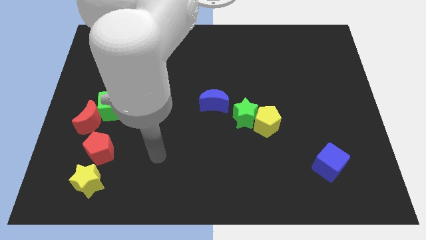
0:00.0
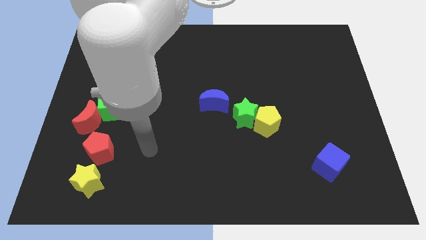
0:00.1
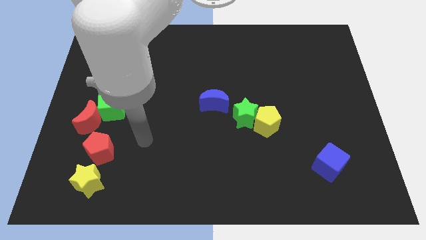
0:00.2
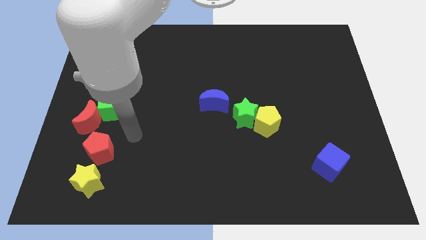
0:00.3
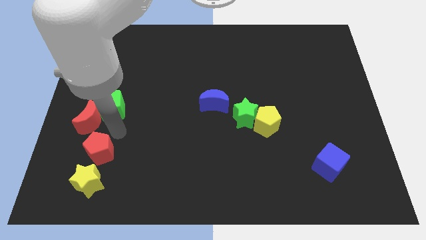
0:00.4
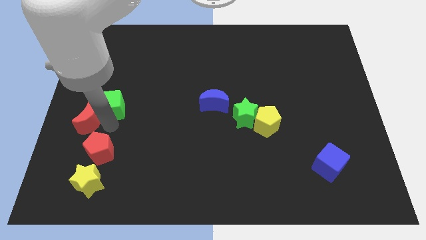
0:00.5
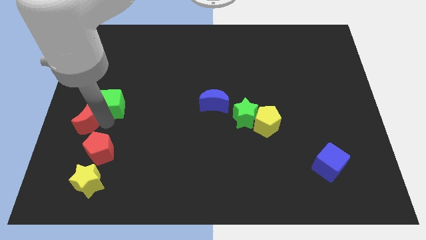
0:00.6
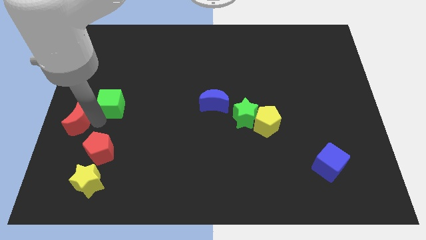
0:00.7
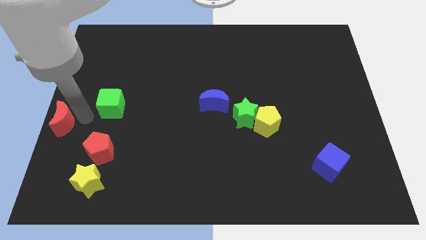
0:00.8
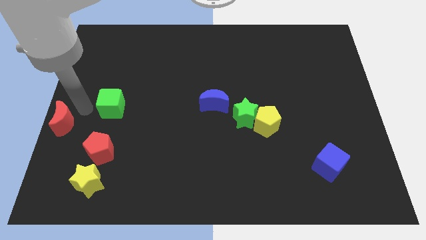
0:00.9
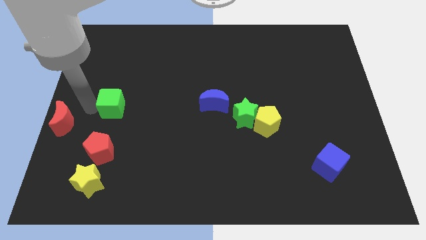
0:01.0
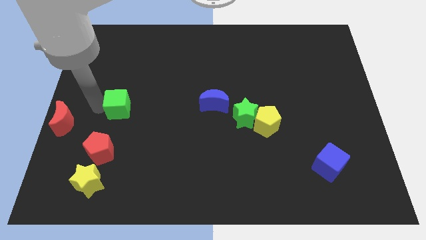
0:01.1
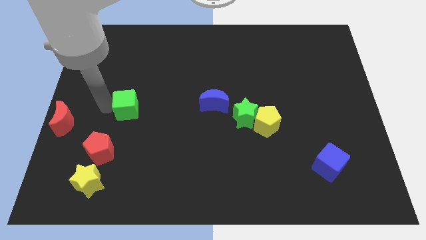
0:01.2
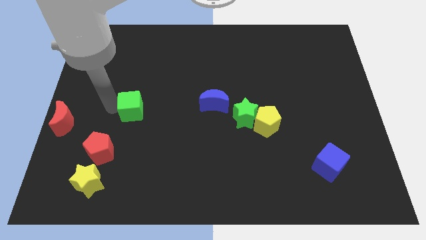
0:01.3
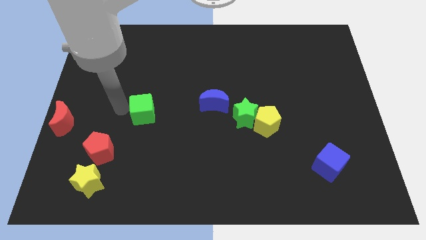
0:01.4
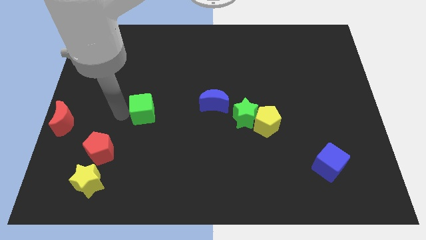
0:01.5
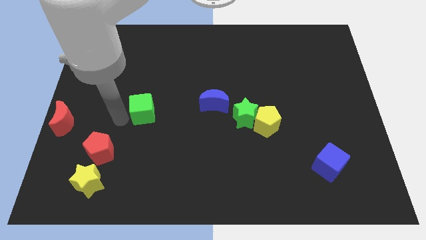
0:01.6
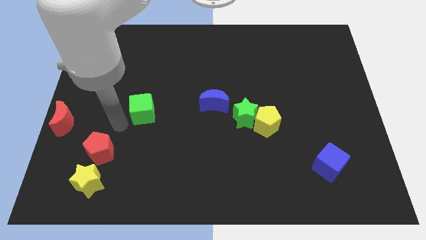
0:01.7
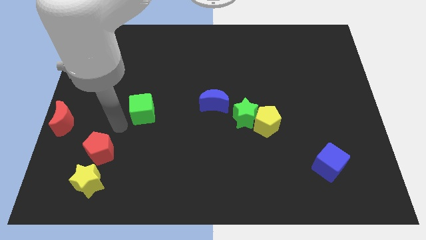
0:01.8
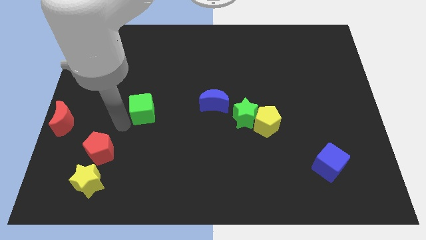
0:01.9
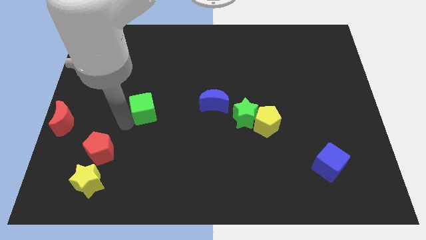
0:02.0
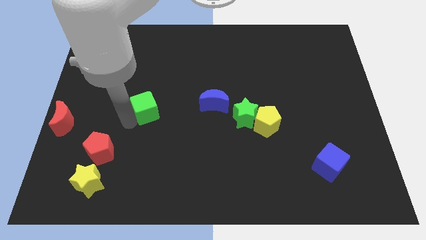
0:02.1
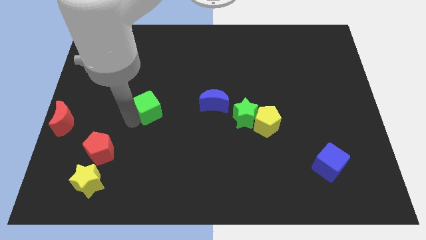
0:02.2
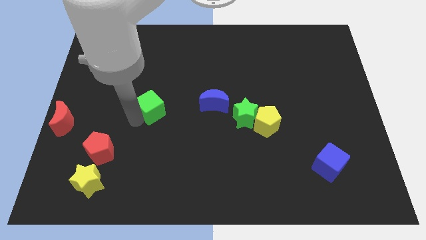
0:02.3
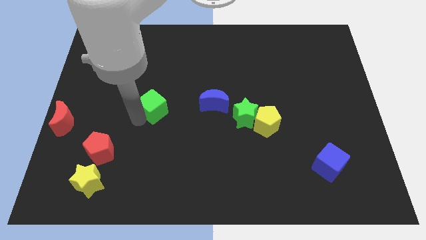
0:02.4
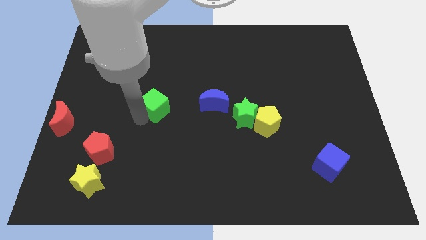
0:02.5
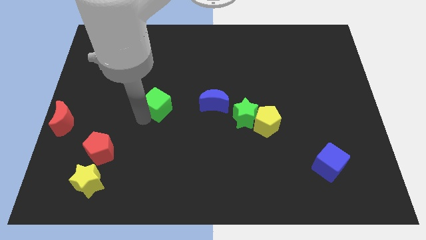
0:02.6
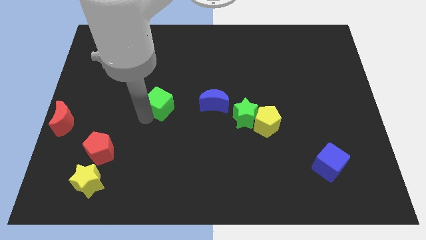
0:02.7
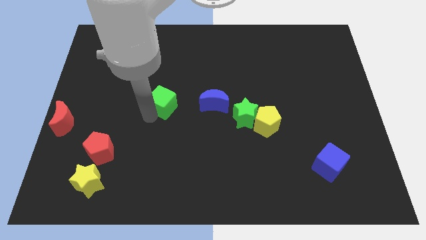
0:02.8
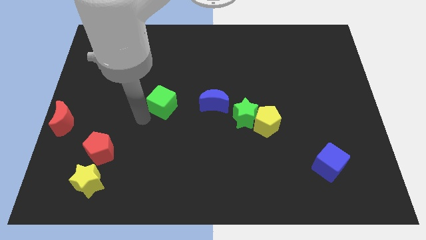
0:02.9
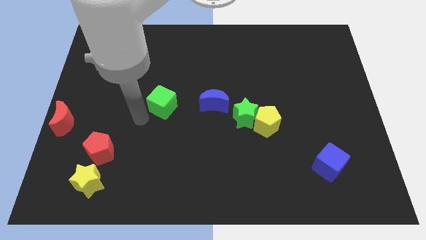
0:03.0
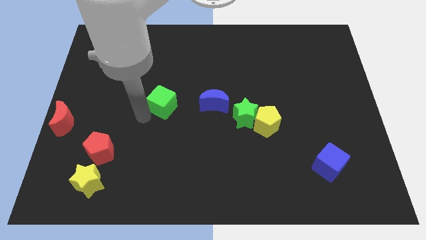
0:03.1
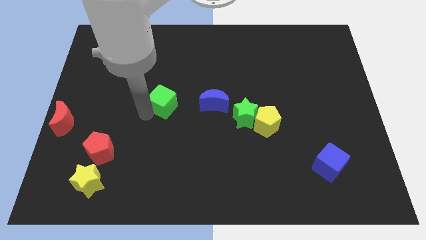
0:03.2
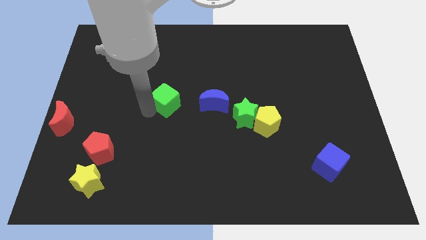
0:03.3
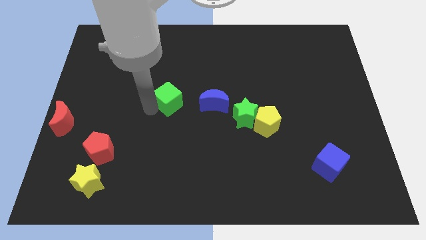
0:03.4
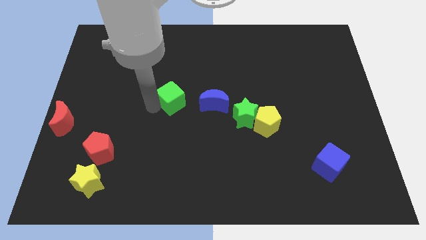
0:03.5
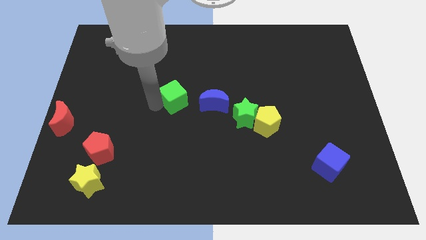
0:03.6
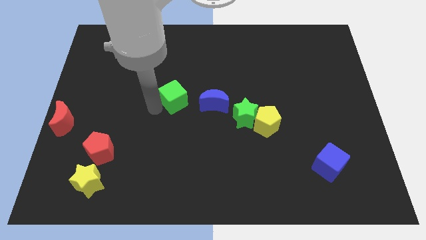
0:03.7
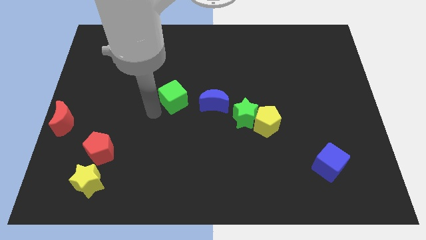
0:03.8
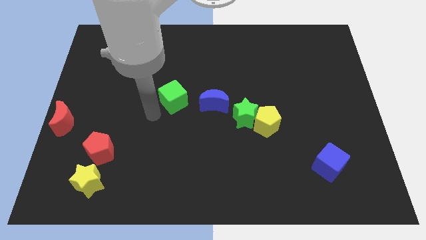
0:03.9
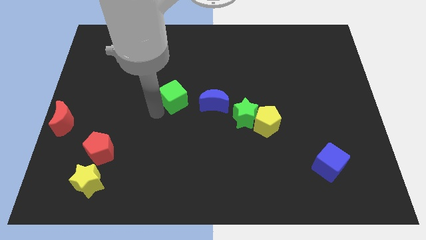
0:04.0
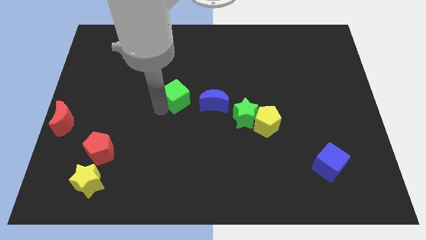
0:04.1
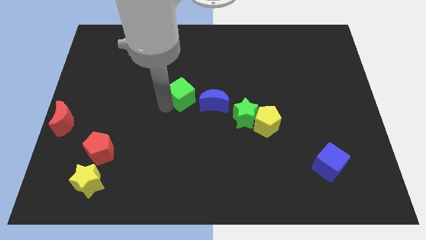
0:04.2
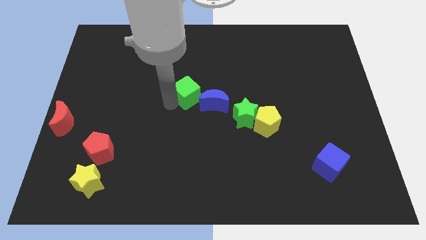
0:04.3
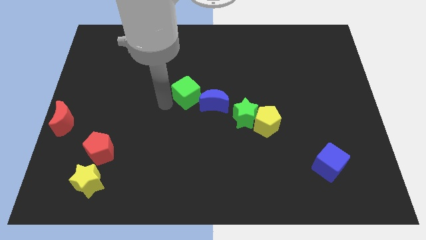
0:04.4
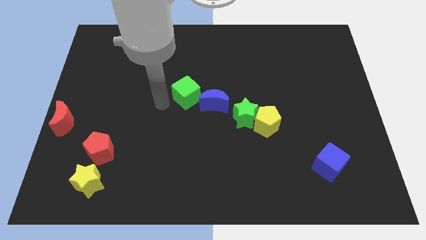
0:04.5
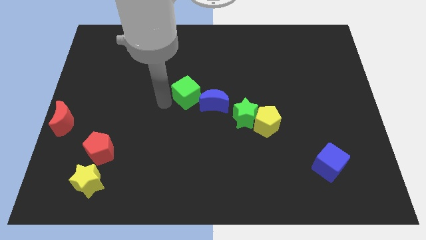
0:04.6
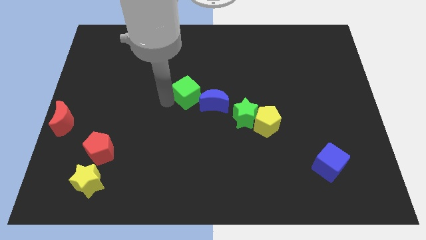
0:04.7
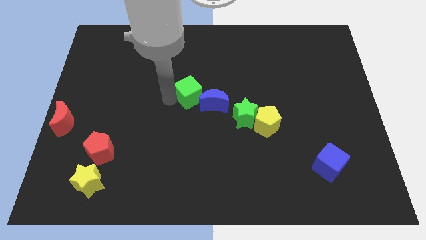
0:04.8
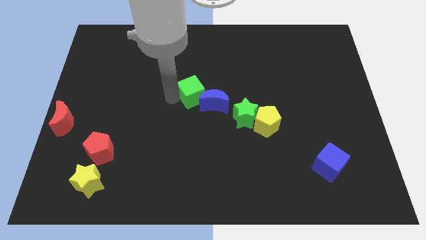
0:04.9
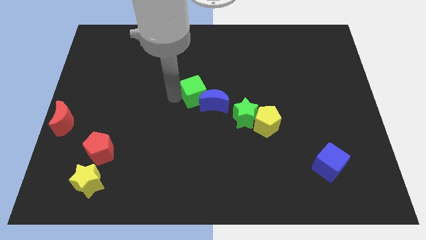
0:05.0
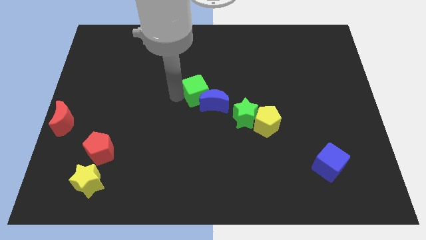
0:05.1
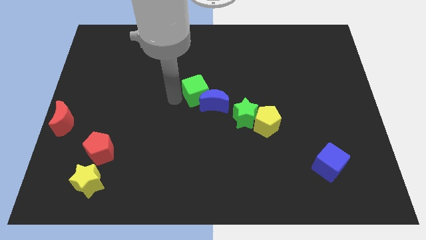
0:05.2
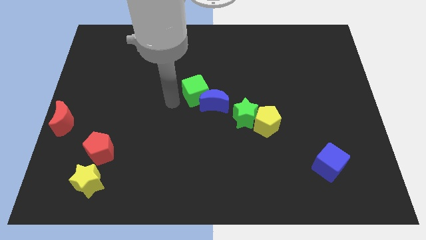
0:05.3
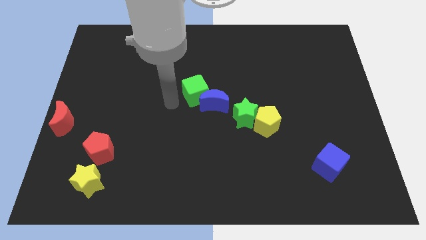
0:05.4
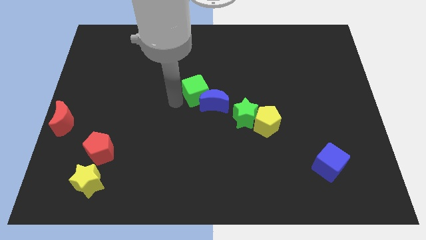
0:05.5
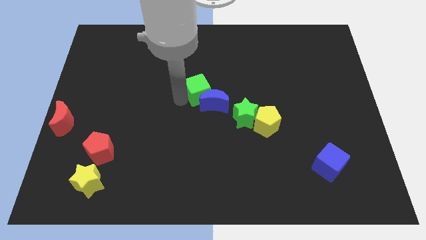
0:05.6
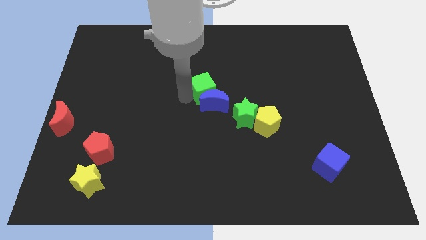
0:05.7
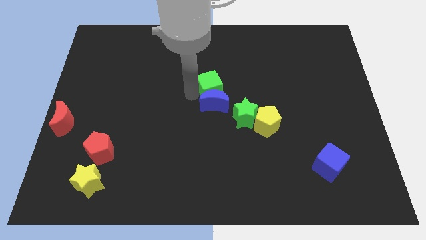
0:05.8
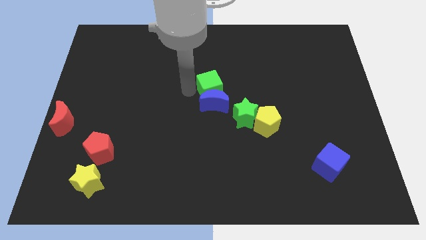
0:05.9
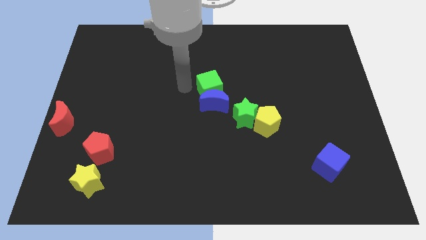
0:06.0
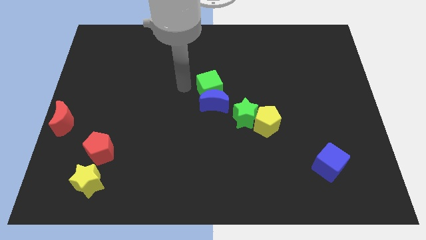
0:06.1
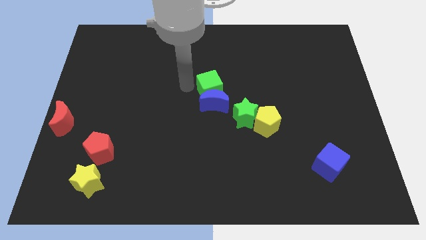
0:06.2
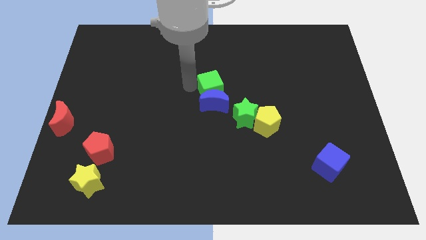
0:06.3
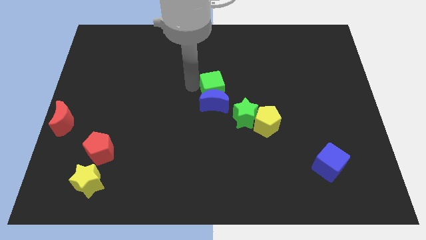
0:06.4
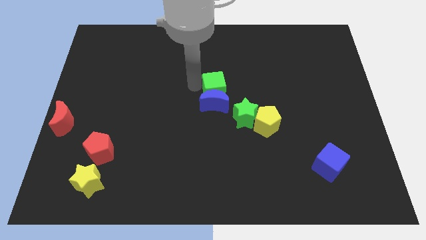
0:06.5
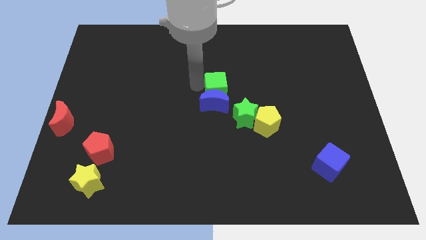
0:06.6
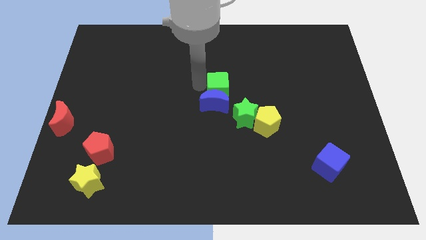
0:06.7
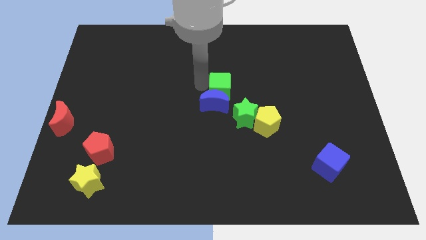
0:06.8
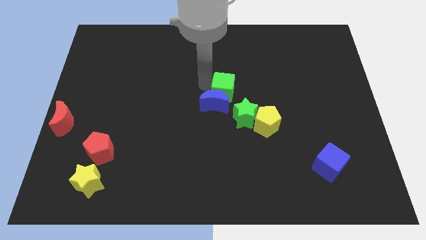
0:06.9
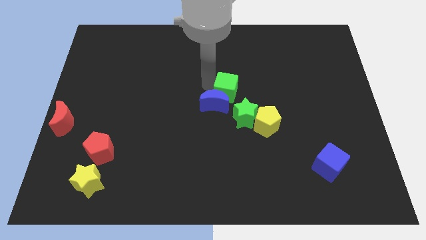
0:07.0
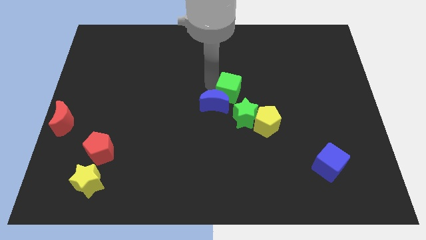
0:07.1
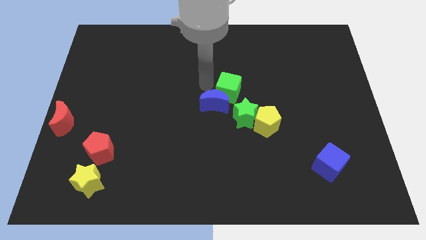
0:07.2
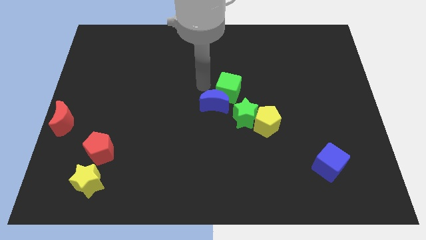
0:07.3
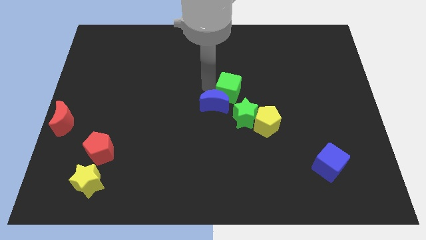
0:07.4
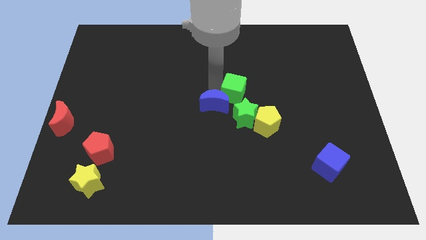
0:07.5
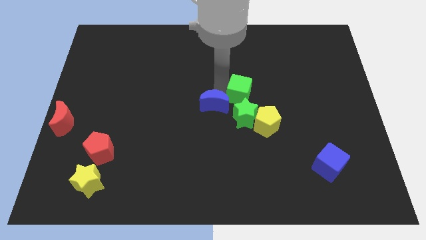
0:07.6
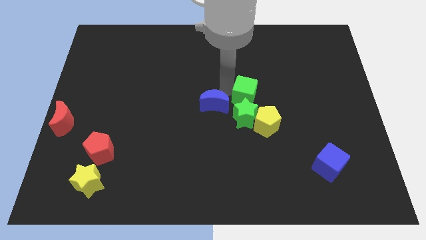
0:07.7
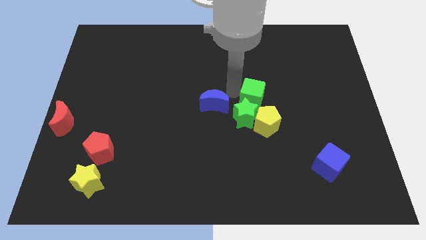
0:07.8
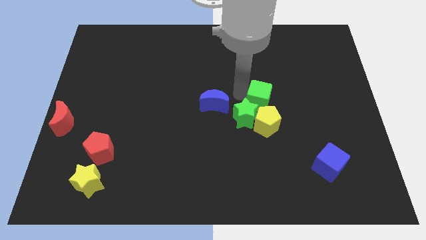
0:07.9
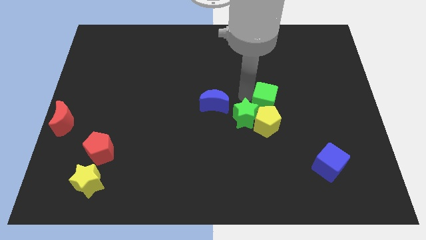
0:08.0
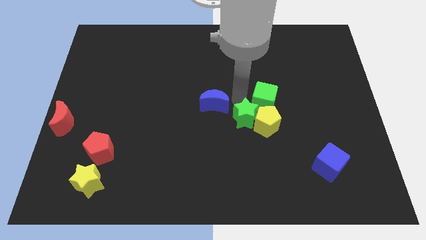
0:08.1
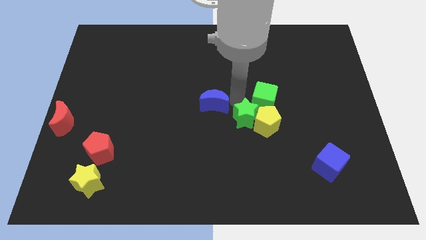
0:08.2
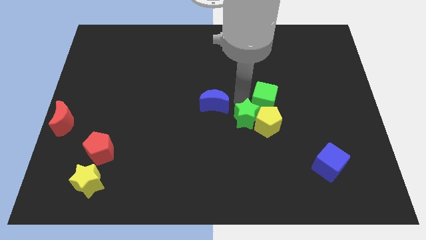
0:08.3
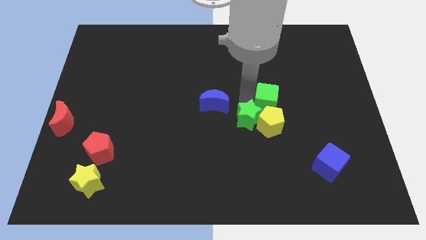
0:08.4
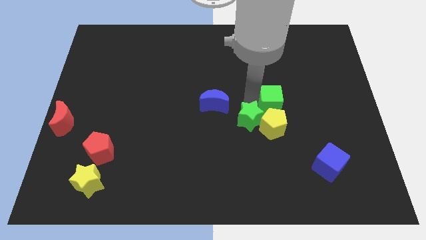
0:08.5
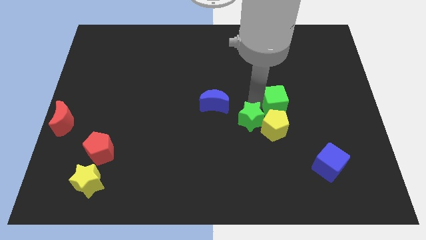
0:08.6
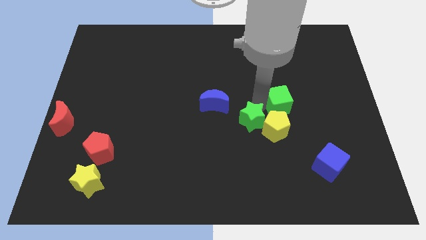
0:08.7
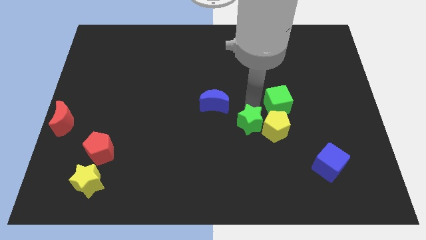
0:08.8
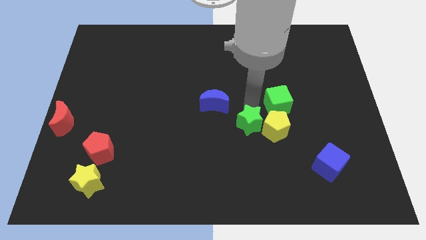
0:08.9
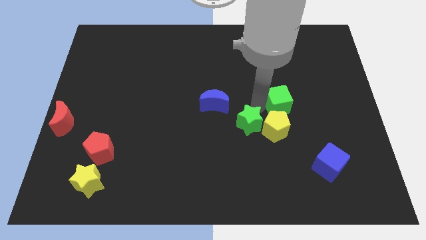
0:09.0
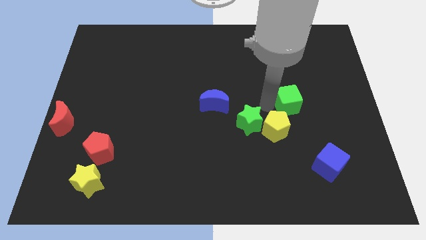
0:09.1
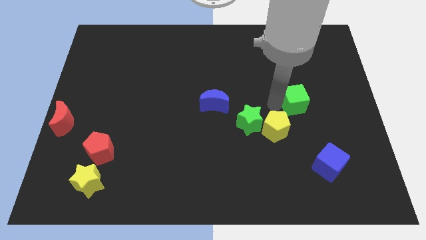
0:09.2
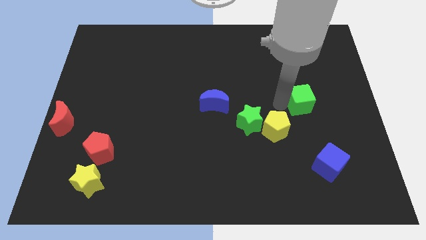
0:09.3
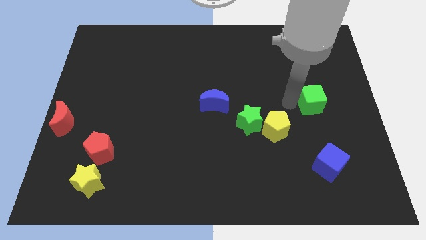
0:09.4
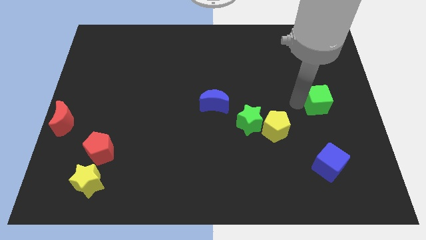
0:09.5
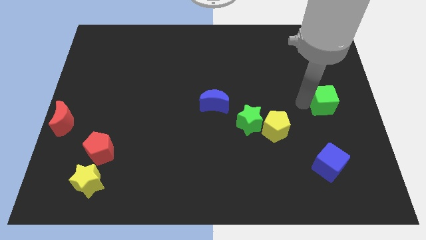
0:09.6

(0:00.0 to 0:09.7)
put the green cube to the right side
